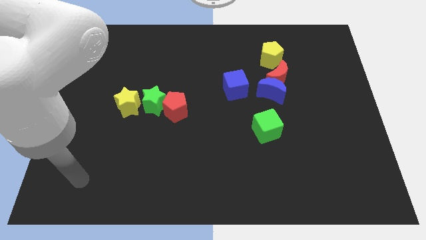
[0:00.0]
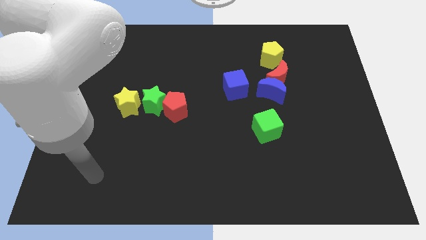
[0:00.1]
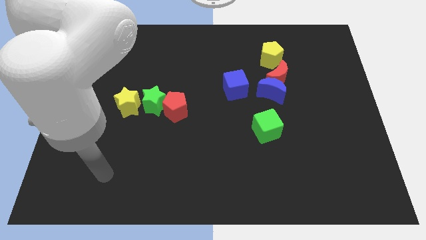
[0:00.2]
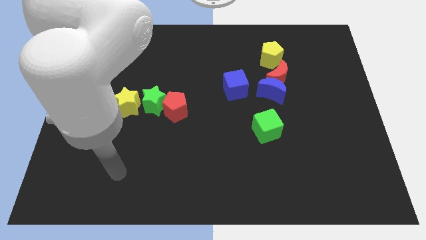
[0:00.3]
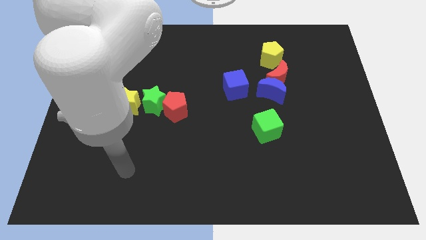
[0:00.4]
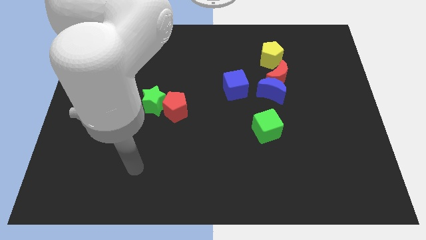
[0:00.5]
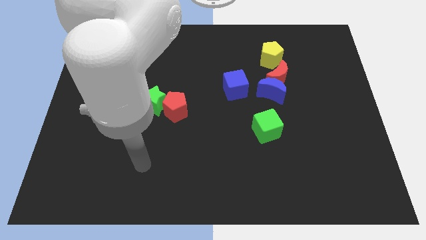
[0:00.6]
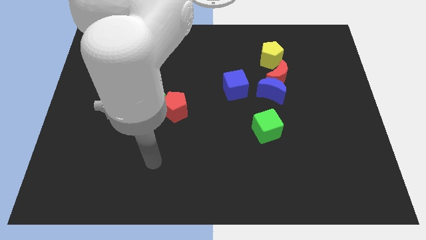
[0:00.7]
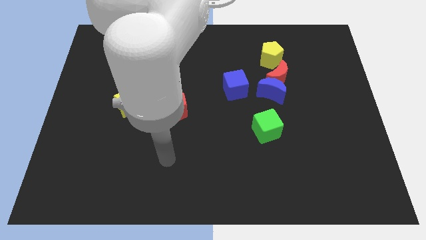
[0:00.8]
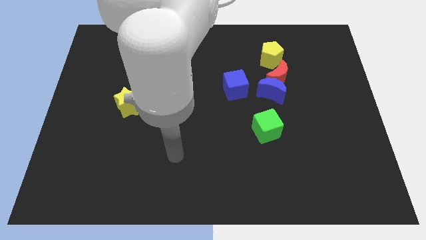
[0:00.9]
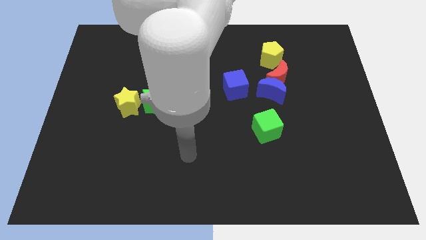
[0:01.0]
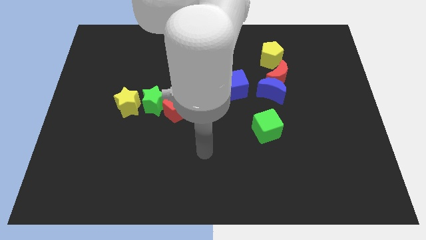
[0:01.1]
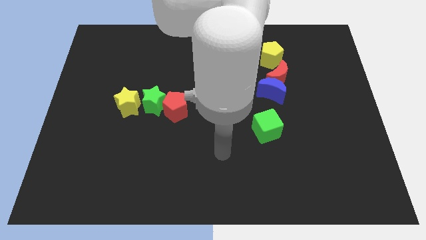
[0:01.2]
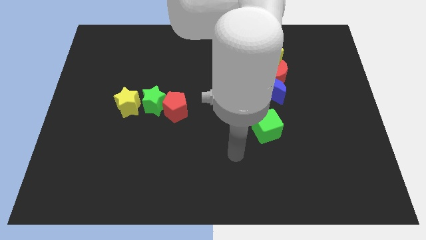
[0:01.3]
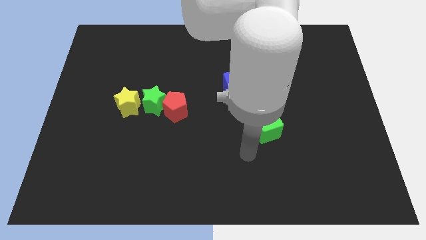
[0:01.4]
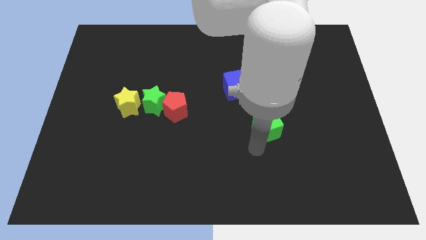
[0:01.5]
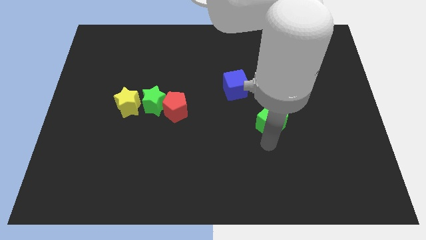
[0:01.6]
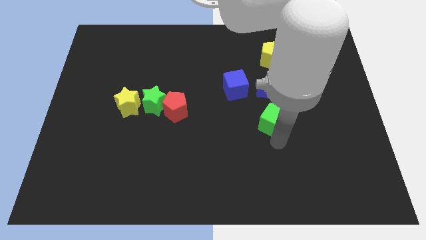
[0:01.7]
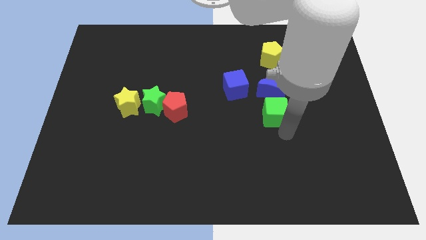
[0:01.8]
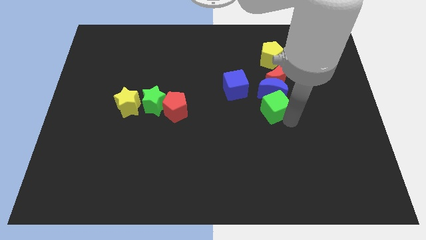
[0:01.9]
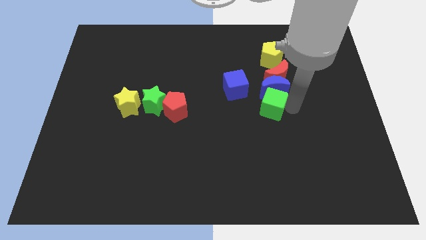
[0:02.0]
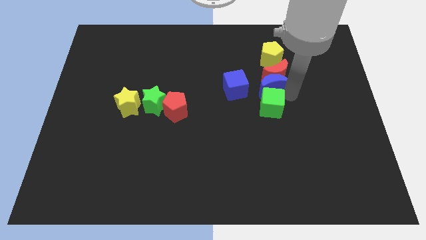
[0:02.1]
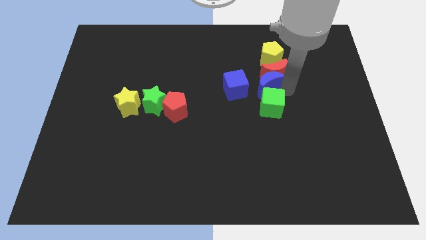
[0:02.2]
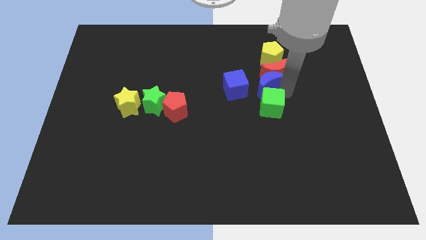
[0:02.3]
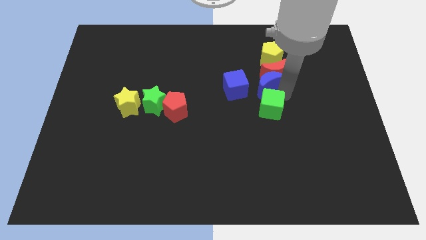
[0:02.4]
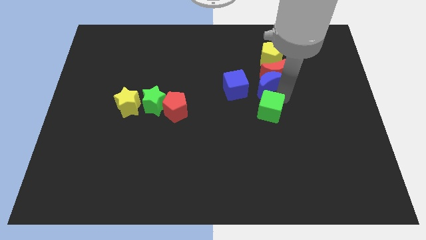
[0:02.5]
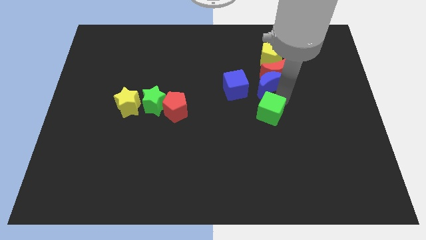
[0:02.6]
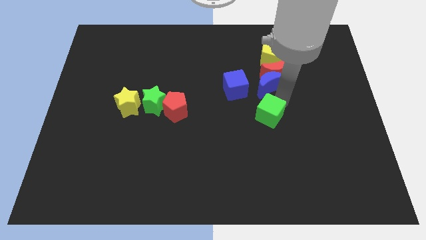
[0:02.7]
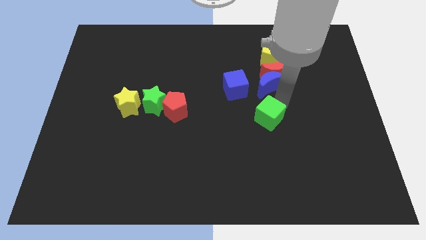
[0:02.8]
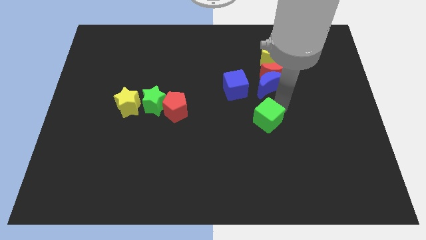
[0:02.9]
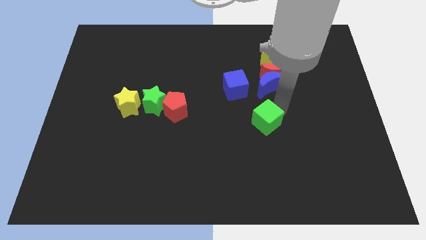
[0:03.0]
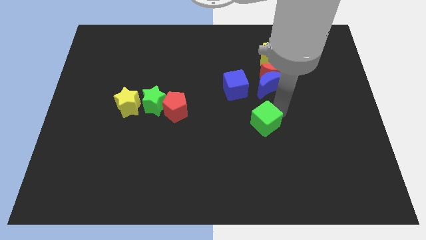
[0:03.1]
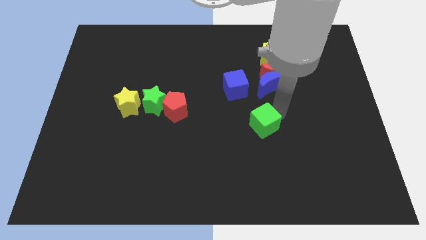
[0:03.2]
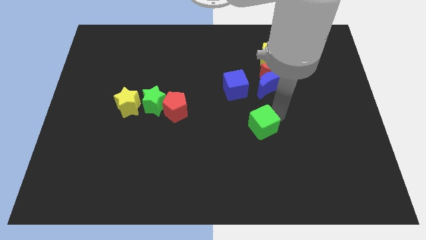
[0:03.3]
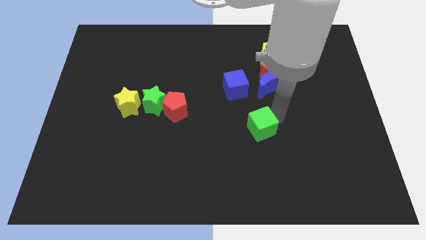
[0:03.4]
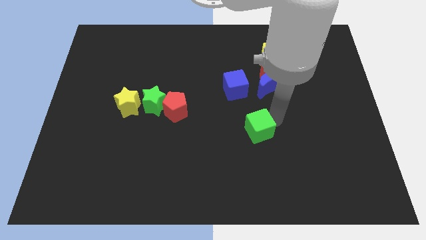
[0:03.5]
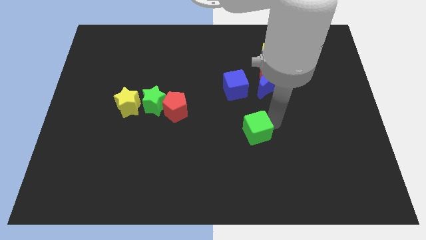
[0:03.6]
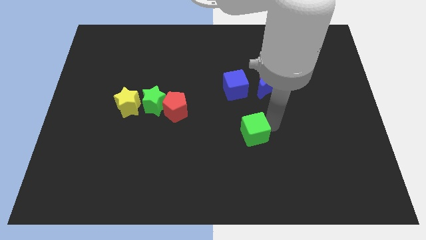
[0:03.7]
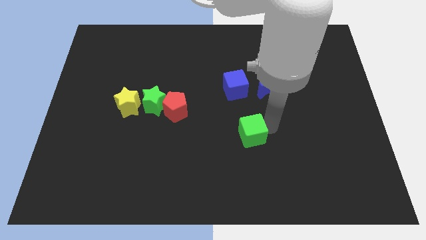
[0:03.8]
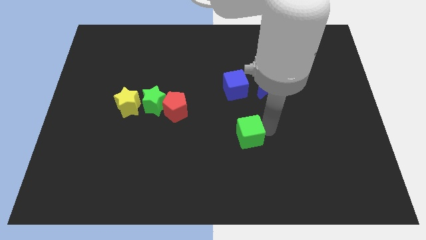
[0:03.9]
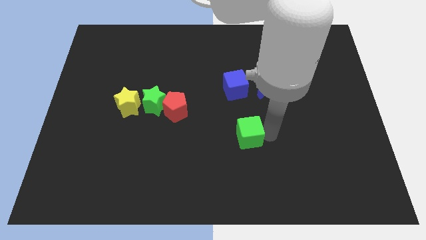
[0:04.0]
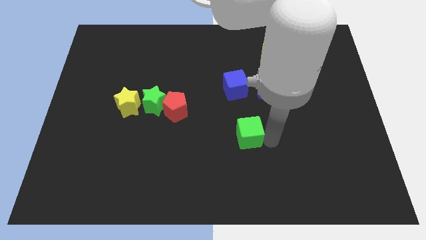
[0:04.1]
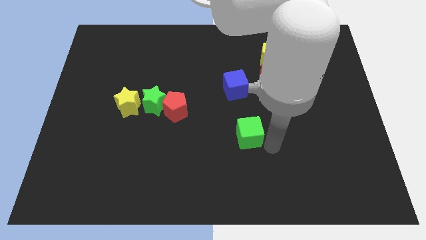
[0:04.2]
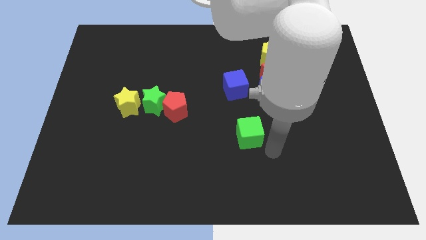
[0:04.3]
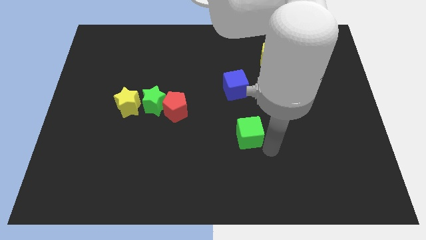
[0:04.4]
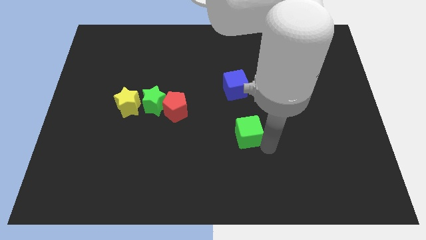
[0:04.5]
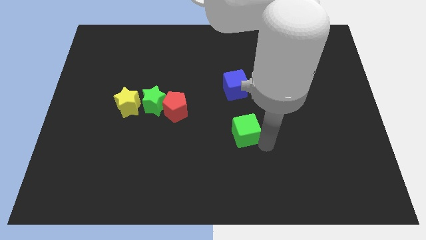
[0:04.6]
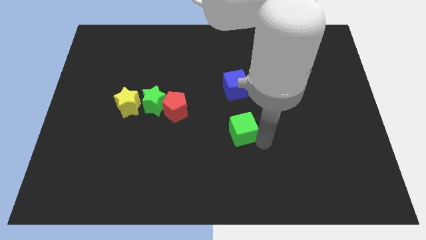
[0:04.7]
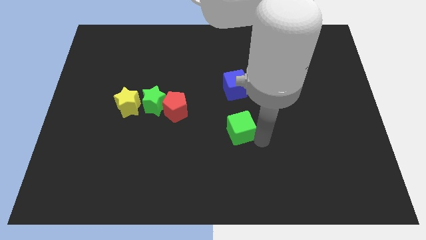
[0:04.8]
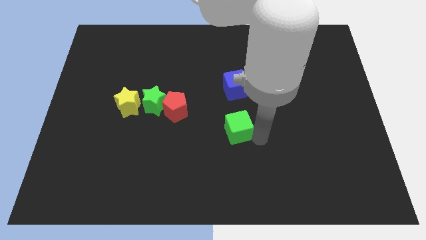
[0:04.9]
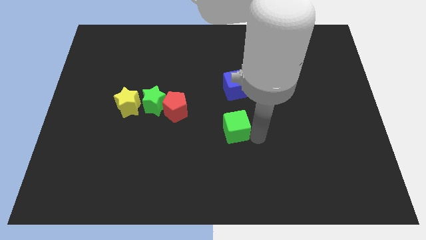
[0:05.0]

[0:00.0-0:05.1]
move the green cube somewhat left

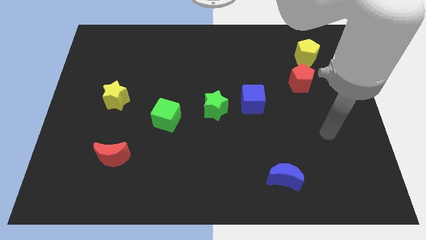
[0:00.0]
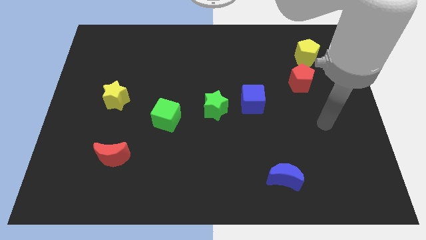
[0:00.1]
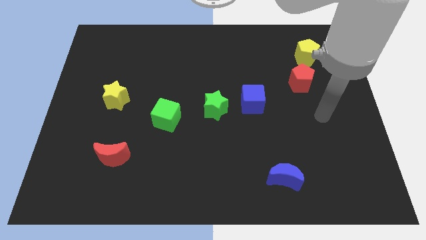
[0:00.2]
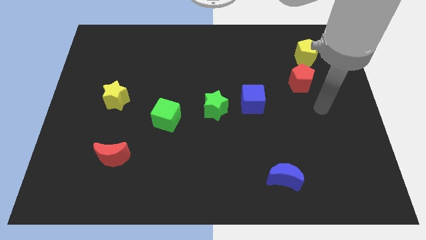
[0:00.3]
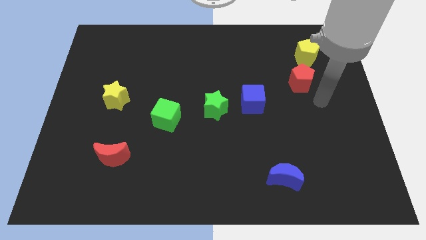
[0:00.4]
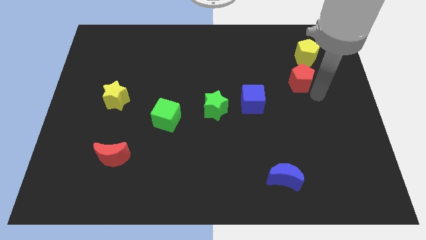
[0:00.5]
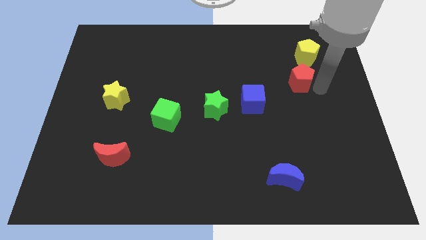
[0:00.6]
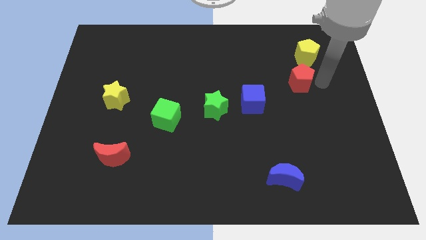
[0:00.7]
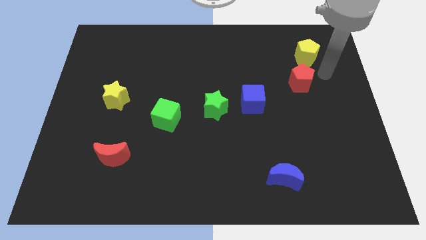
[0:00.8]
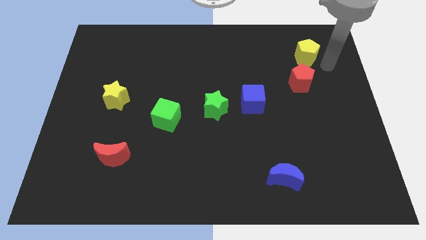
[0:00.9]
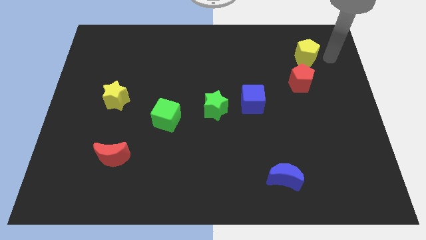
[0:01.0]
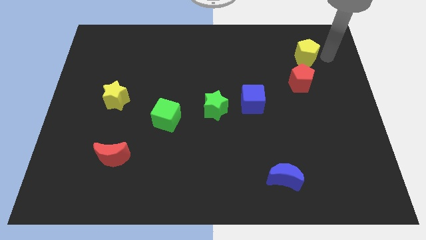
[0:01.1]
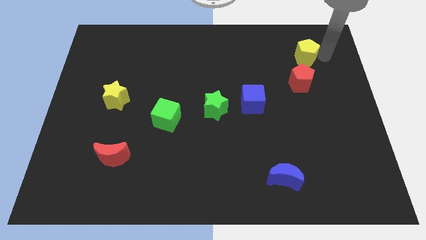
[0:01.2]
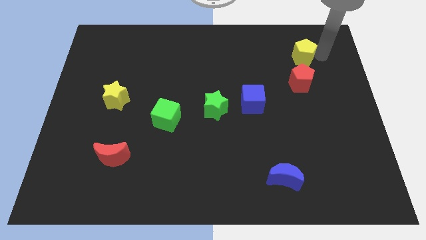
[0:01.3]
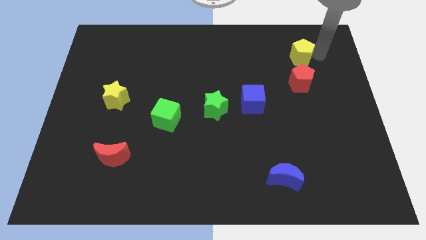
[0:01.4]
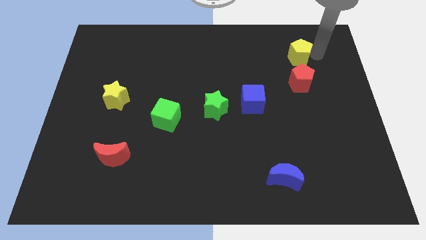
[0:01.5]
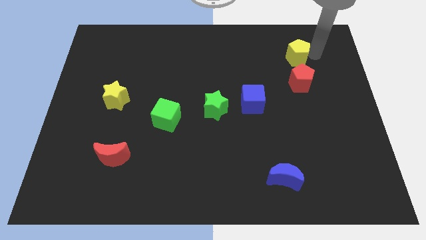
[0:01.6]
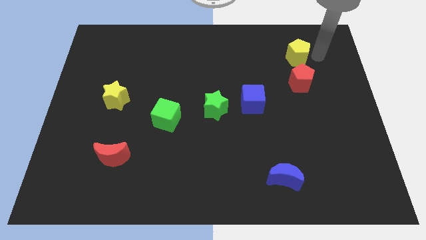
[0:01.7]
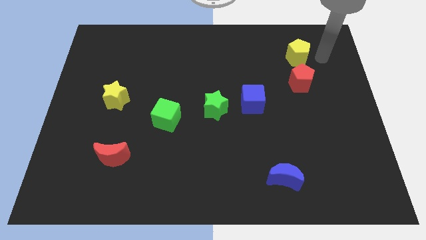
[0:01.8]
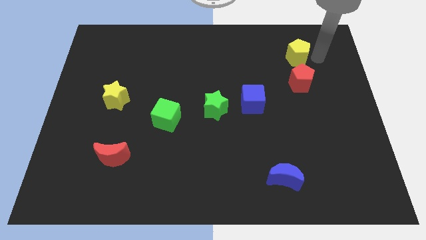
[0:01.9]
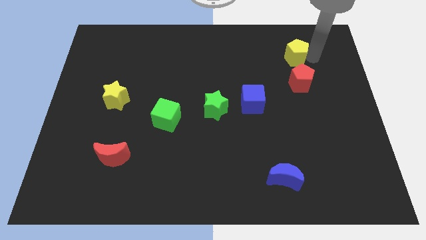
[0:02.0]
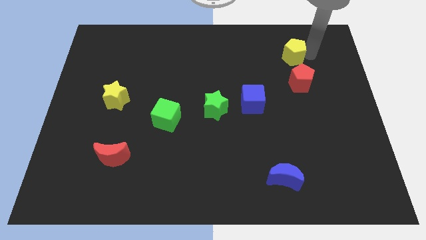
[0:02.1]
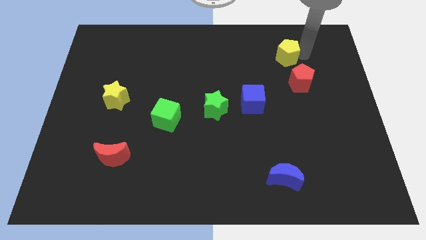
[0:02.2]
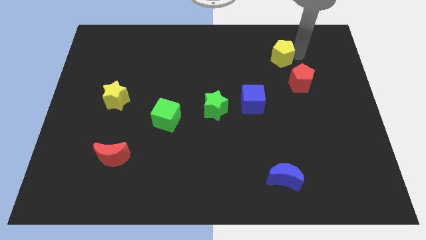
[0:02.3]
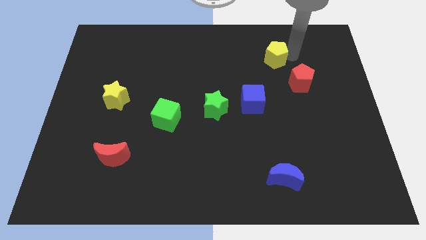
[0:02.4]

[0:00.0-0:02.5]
move the yellow pentagon a bit to the left

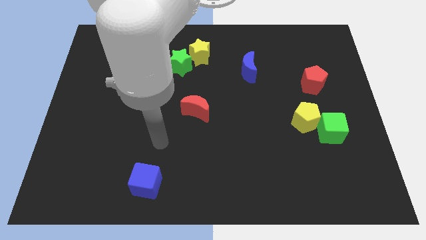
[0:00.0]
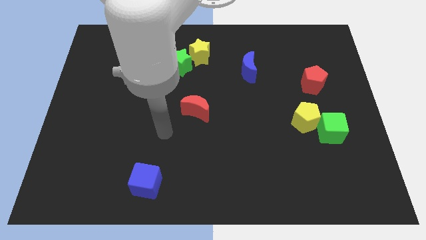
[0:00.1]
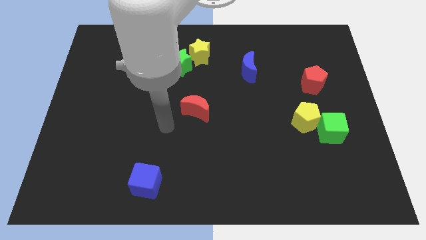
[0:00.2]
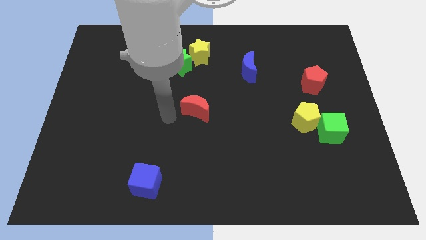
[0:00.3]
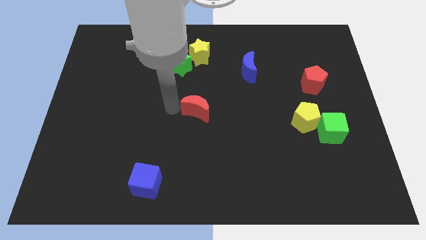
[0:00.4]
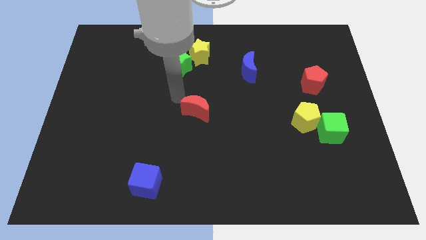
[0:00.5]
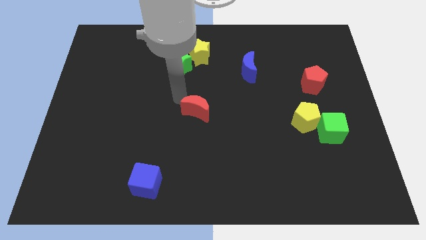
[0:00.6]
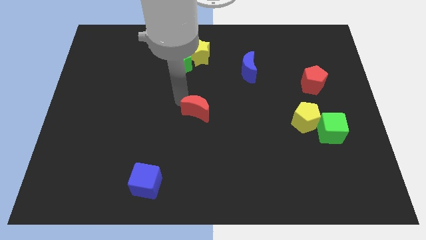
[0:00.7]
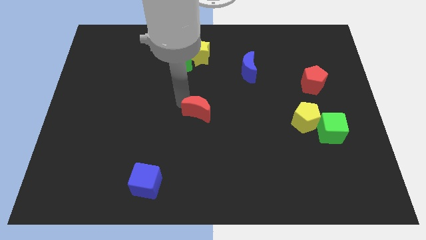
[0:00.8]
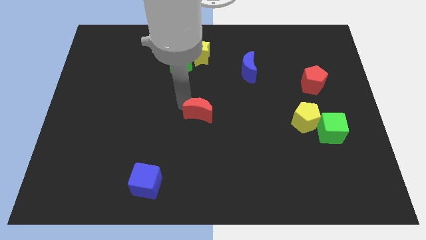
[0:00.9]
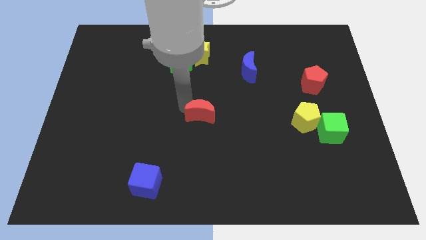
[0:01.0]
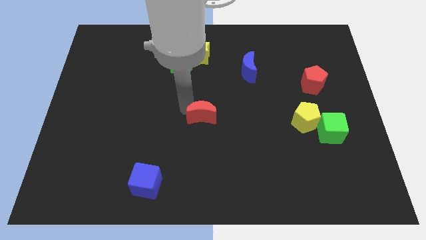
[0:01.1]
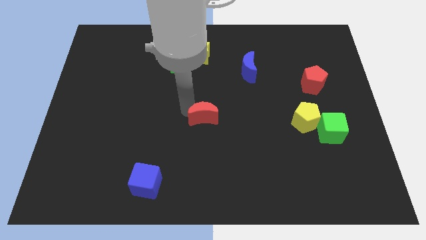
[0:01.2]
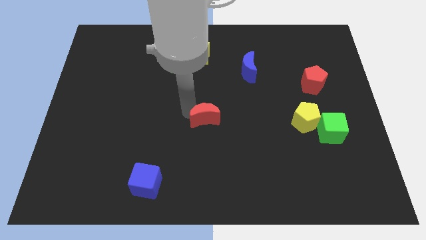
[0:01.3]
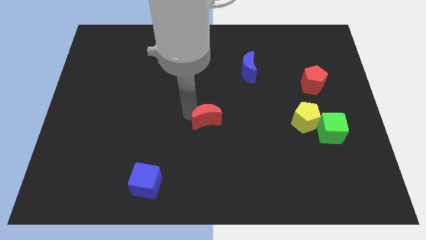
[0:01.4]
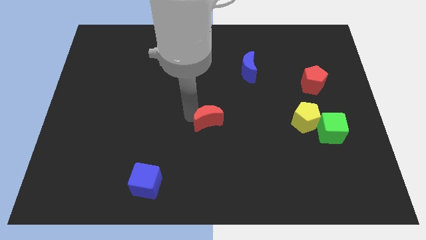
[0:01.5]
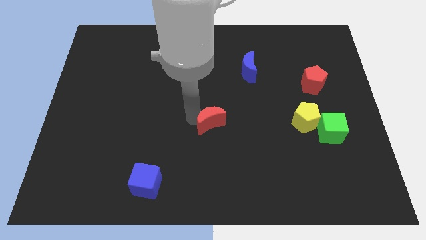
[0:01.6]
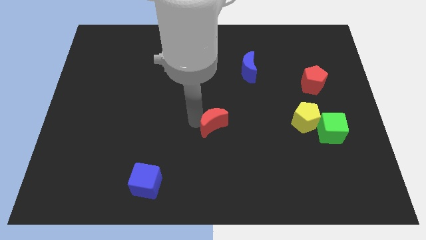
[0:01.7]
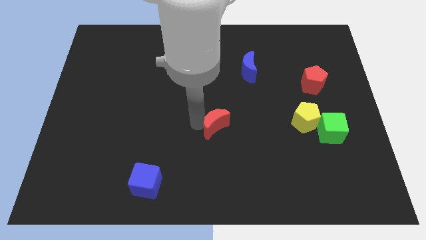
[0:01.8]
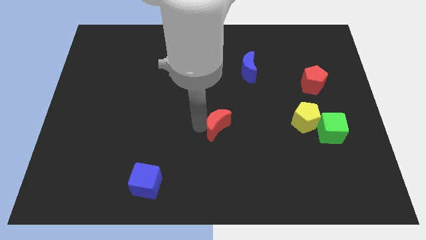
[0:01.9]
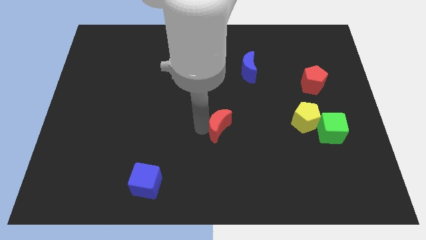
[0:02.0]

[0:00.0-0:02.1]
slightly slide the red moon diagonally downwards and to the right
